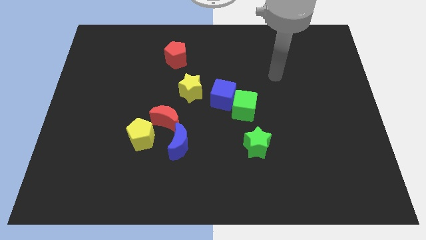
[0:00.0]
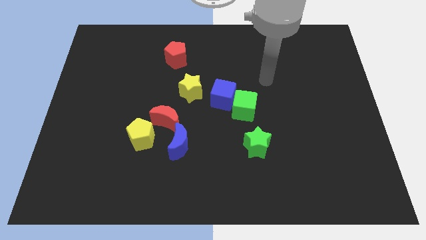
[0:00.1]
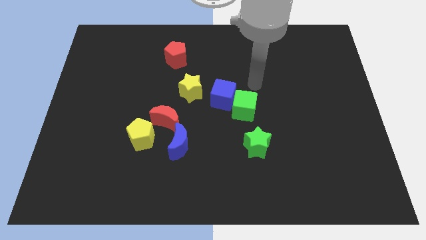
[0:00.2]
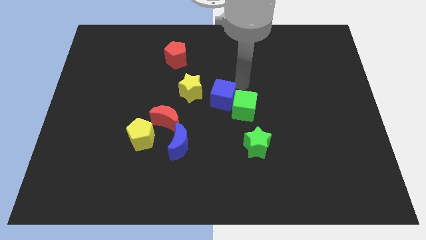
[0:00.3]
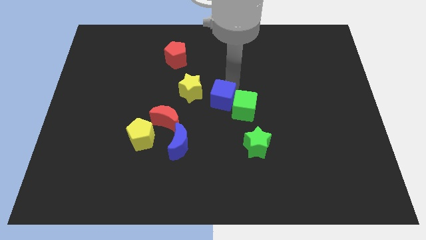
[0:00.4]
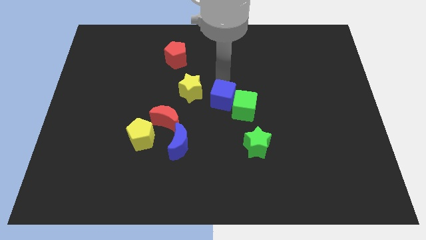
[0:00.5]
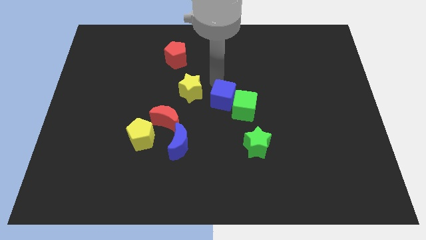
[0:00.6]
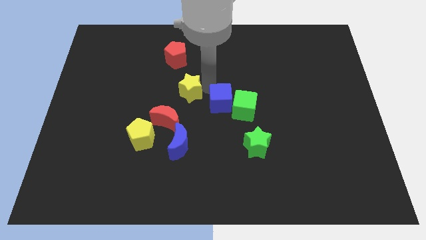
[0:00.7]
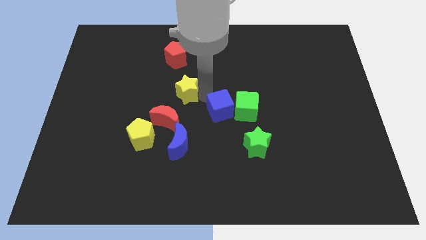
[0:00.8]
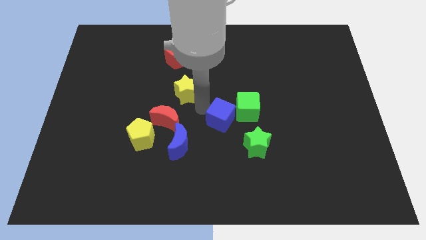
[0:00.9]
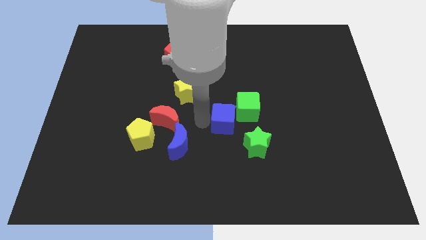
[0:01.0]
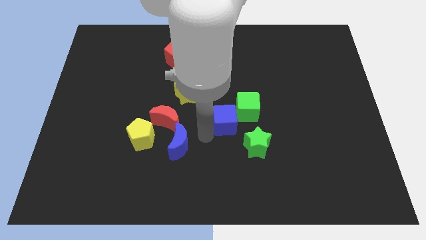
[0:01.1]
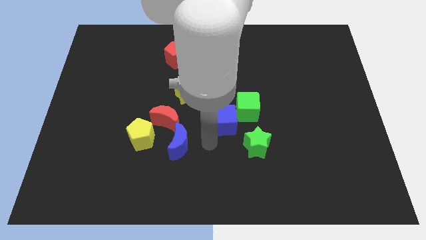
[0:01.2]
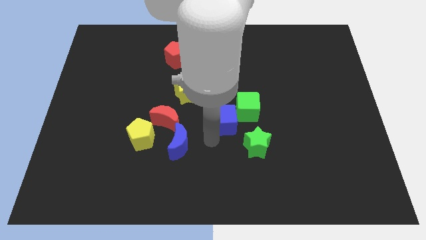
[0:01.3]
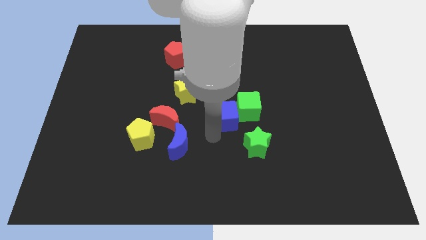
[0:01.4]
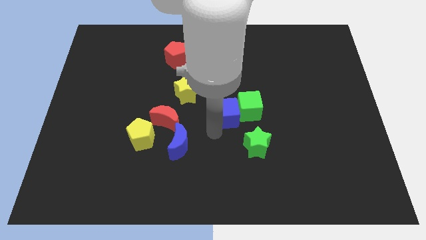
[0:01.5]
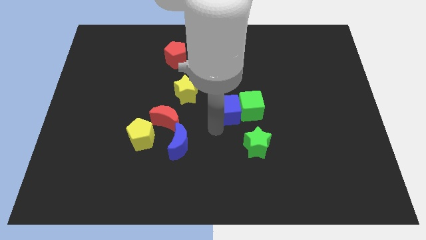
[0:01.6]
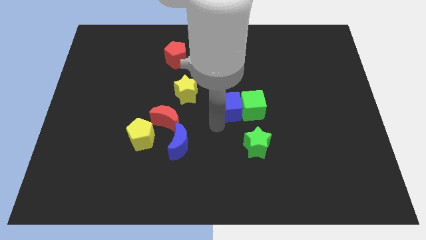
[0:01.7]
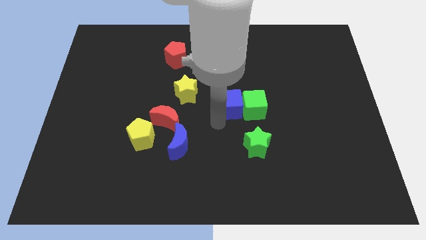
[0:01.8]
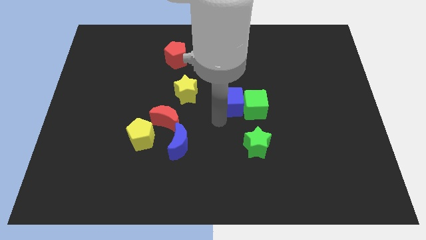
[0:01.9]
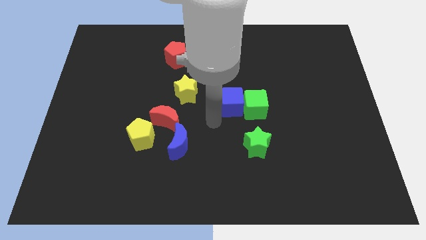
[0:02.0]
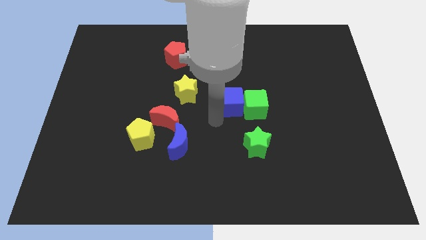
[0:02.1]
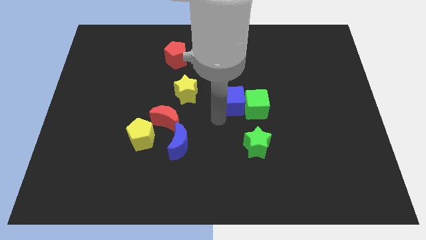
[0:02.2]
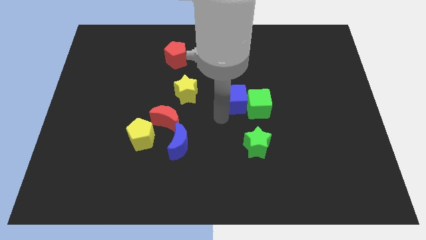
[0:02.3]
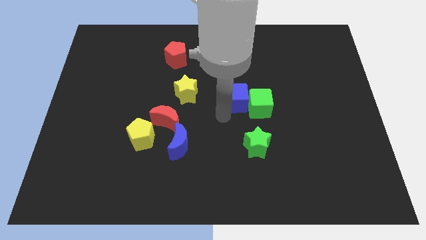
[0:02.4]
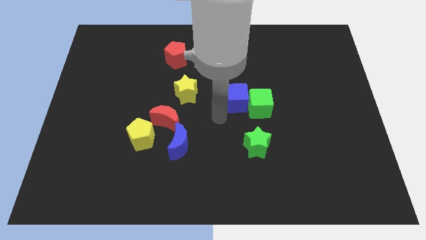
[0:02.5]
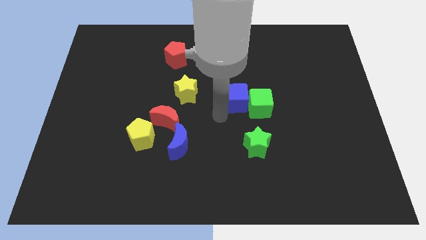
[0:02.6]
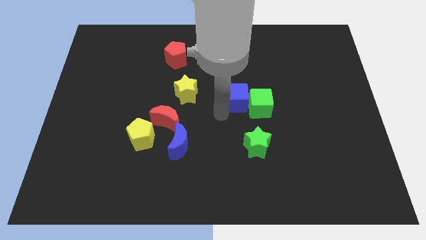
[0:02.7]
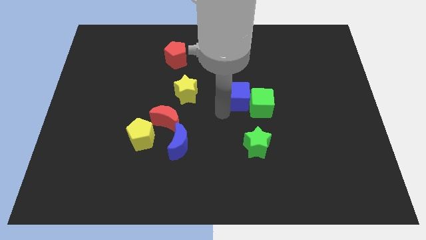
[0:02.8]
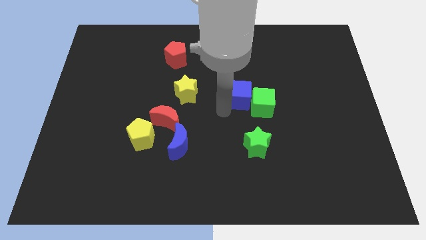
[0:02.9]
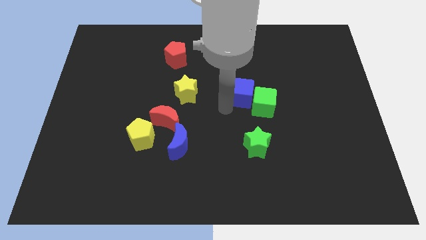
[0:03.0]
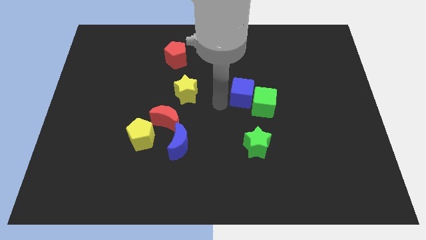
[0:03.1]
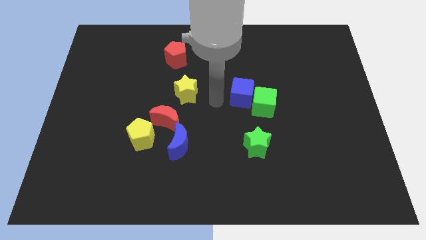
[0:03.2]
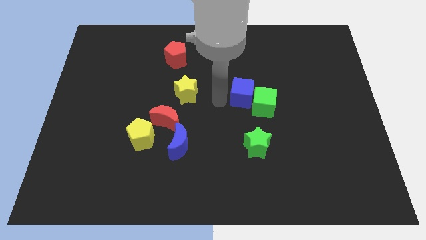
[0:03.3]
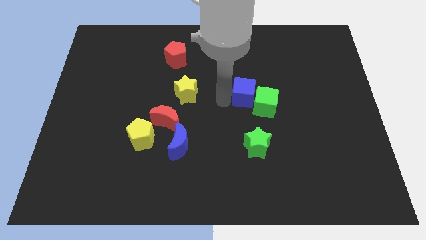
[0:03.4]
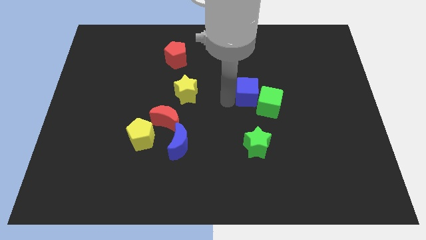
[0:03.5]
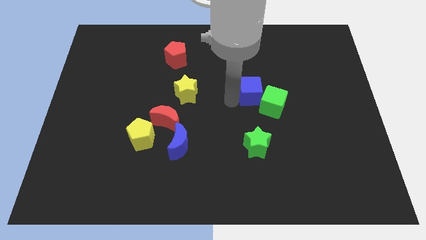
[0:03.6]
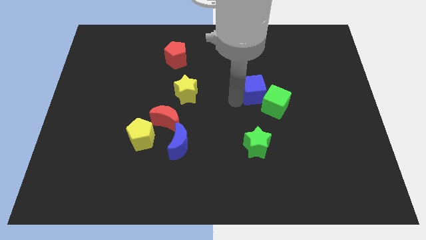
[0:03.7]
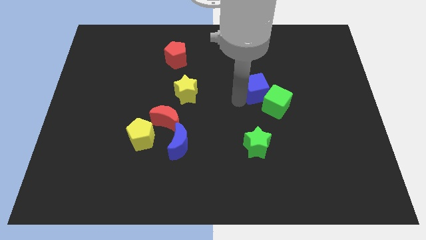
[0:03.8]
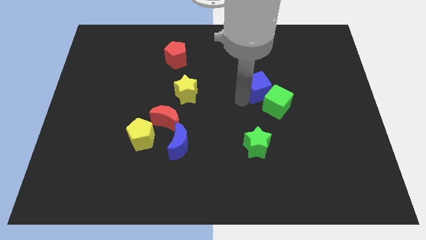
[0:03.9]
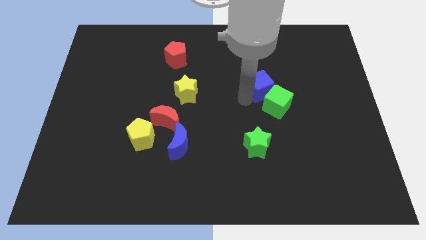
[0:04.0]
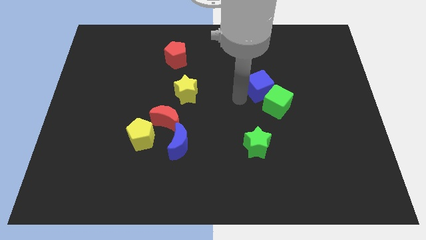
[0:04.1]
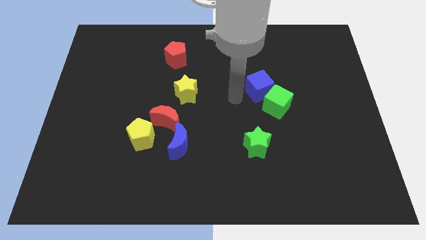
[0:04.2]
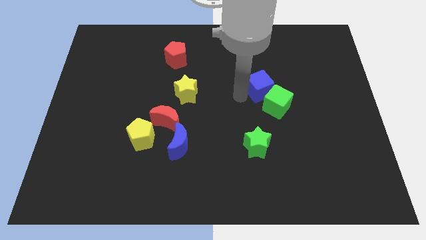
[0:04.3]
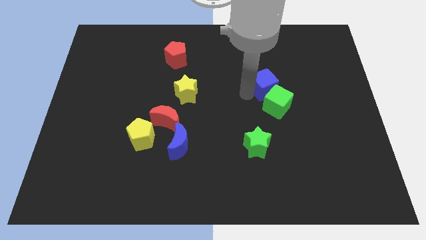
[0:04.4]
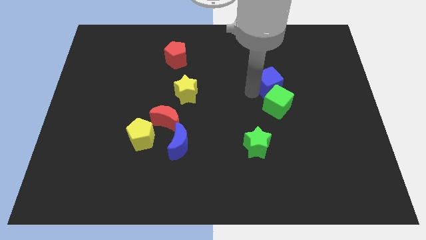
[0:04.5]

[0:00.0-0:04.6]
separate the blue cube from the green cube and yellow star

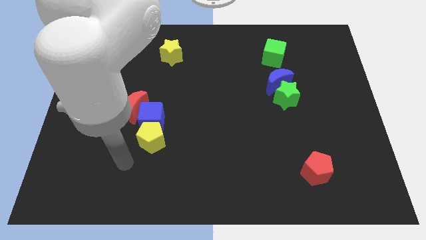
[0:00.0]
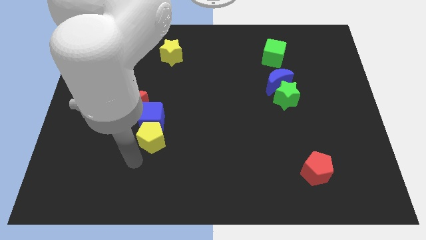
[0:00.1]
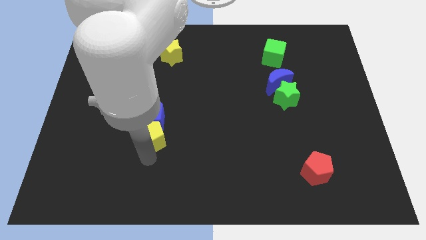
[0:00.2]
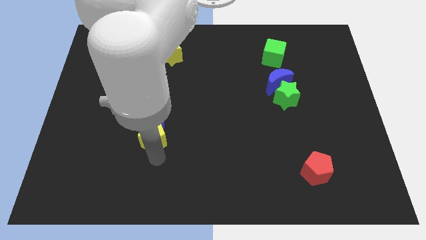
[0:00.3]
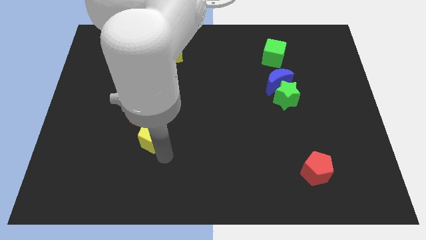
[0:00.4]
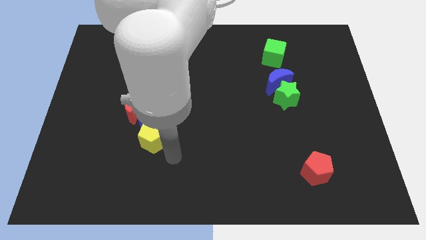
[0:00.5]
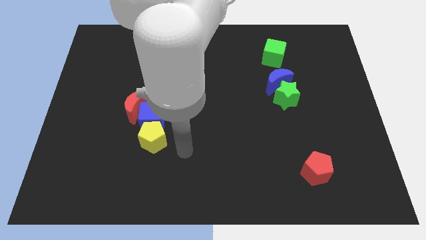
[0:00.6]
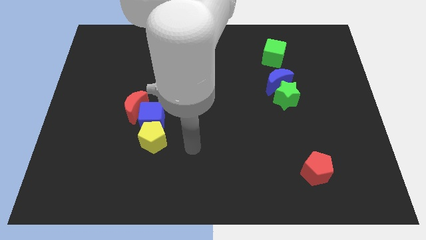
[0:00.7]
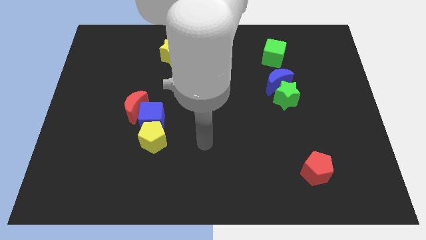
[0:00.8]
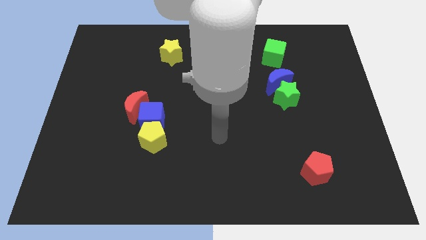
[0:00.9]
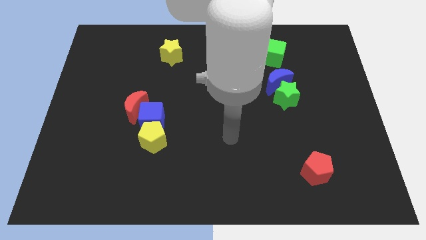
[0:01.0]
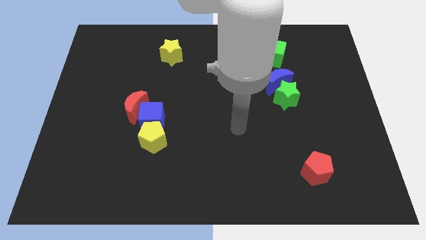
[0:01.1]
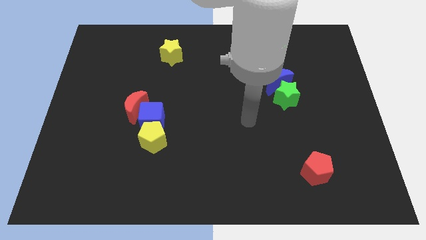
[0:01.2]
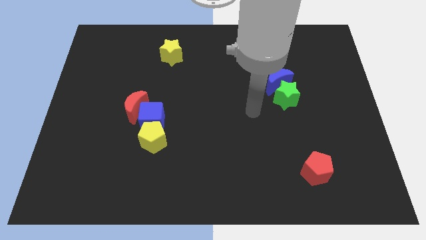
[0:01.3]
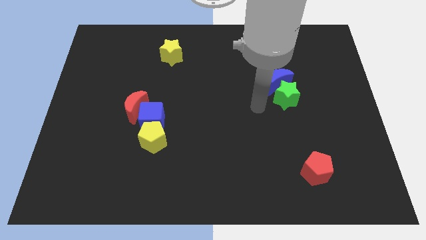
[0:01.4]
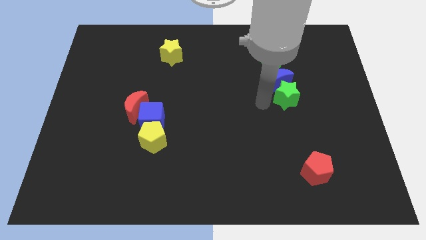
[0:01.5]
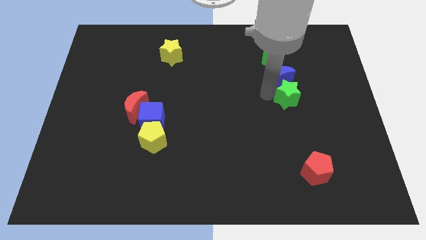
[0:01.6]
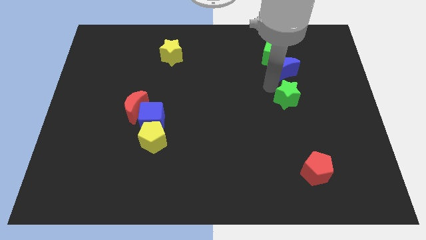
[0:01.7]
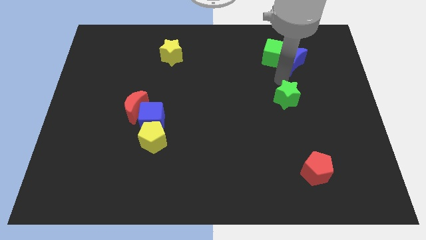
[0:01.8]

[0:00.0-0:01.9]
separate the green star from the blue moon

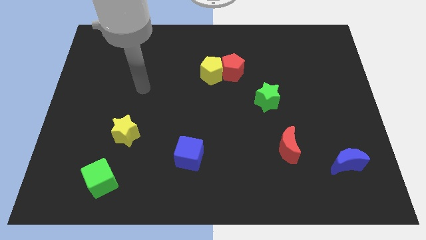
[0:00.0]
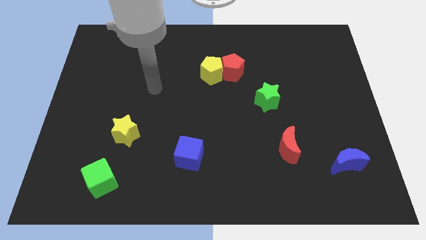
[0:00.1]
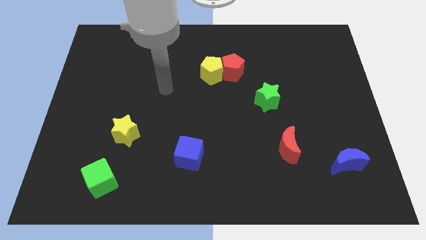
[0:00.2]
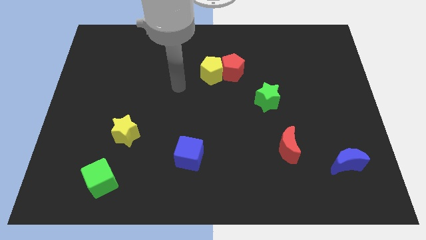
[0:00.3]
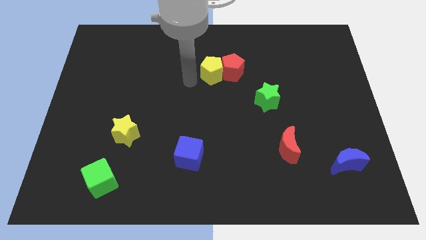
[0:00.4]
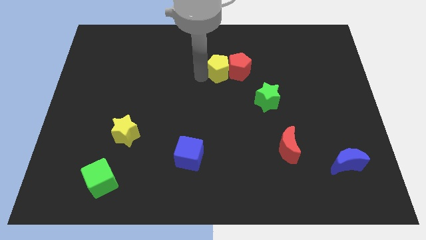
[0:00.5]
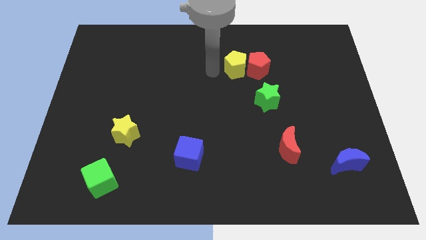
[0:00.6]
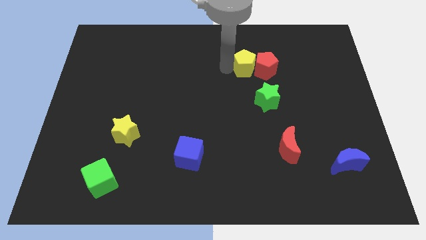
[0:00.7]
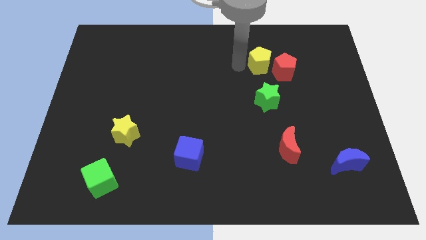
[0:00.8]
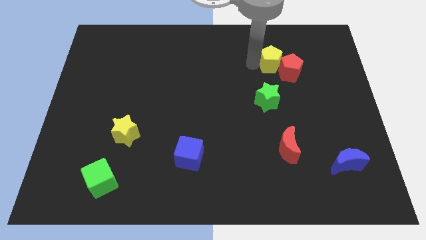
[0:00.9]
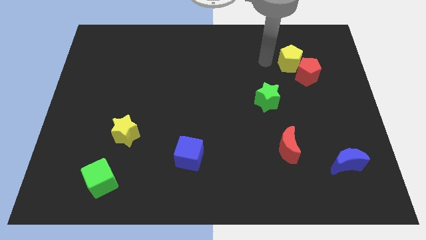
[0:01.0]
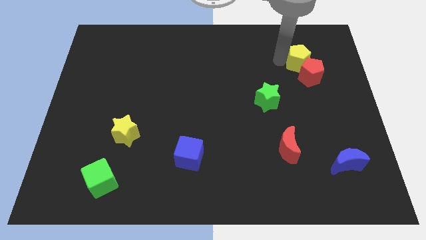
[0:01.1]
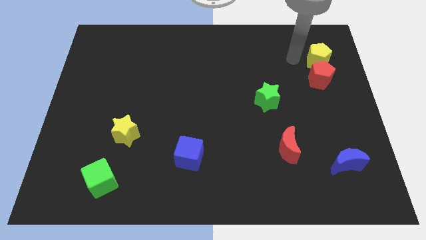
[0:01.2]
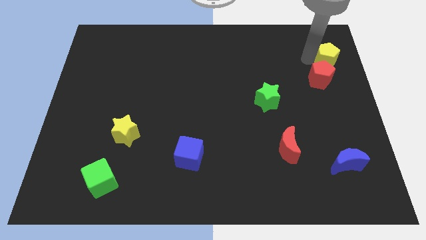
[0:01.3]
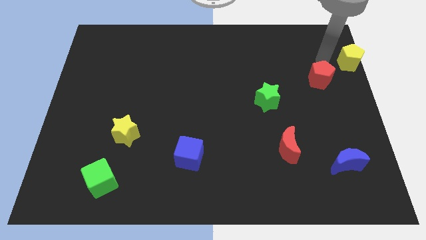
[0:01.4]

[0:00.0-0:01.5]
separate the red pentagon from the yellow pentagon

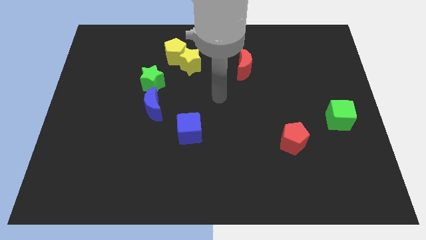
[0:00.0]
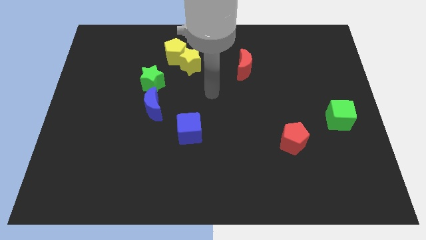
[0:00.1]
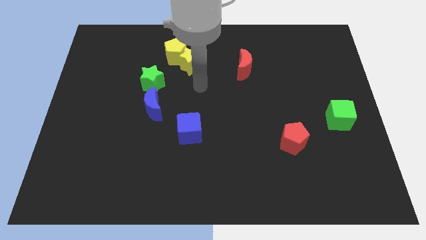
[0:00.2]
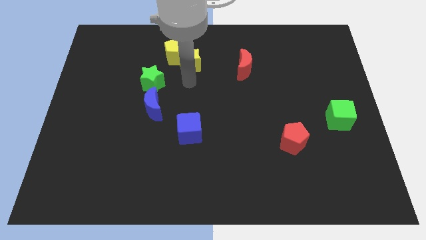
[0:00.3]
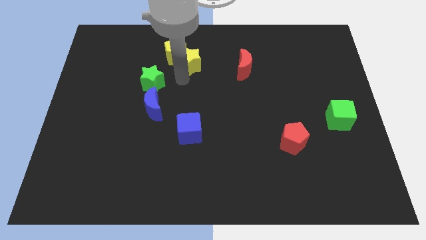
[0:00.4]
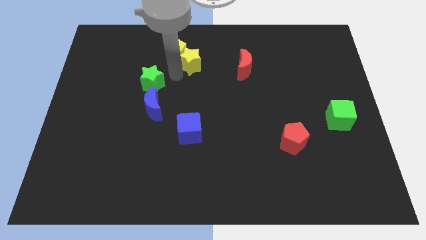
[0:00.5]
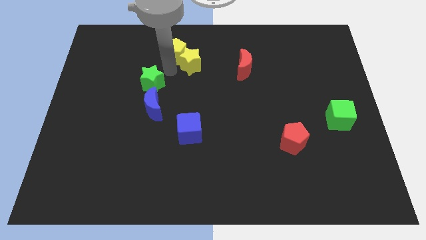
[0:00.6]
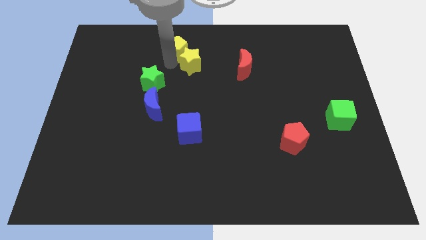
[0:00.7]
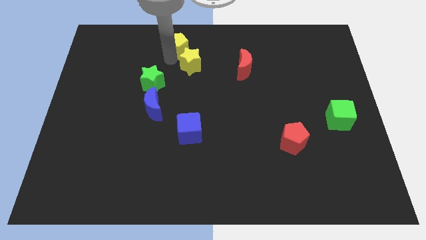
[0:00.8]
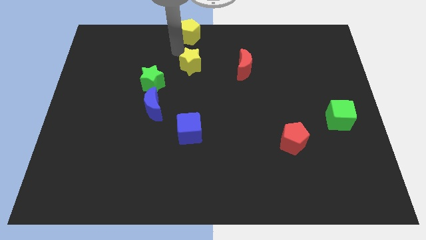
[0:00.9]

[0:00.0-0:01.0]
move the yellow star away from the yellow pentagon

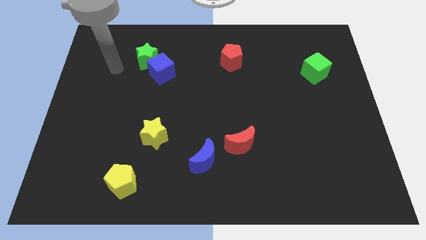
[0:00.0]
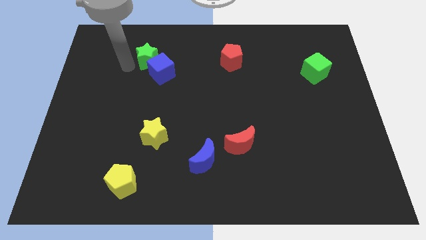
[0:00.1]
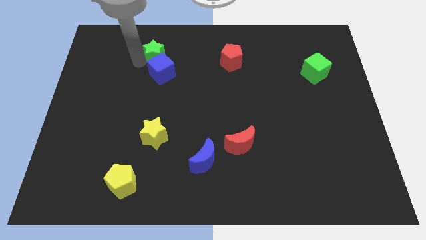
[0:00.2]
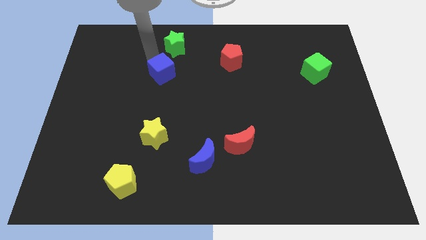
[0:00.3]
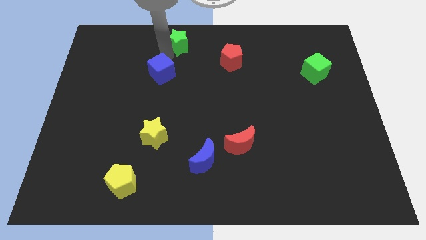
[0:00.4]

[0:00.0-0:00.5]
separate the blue cube from the green star
